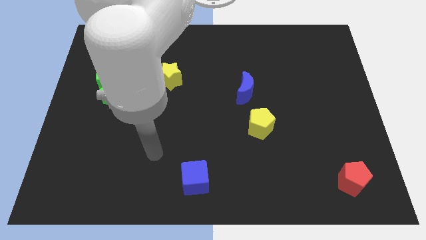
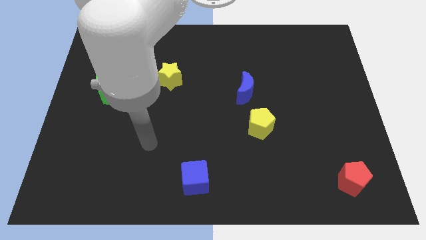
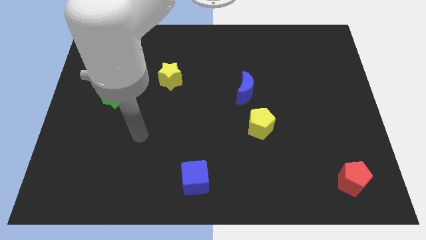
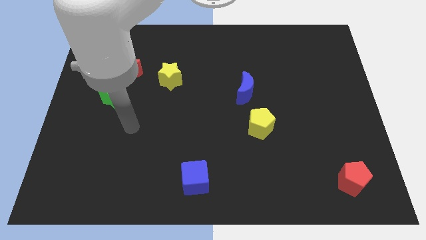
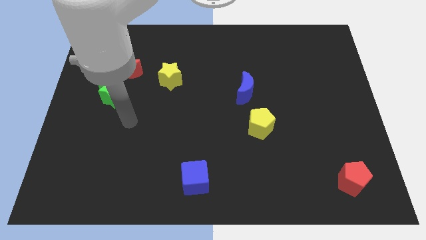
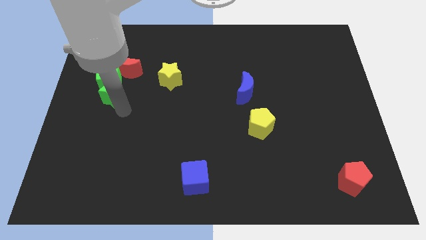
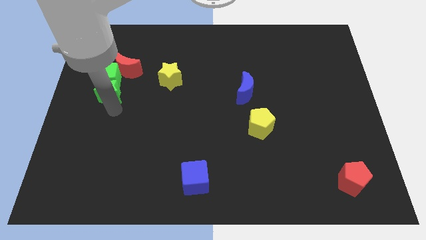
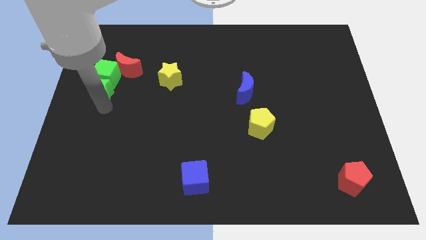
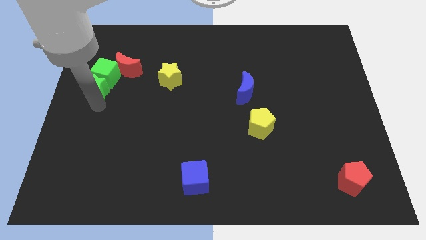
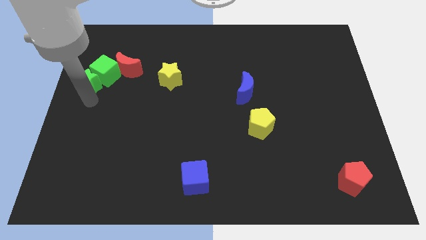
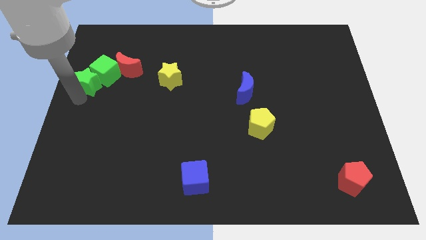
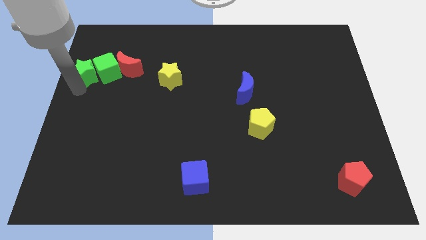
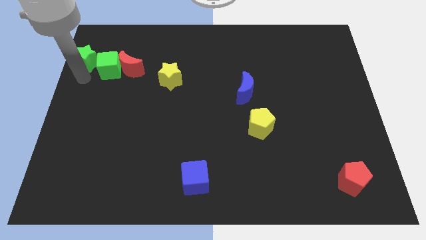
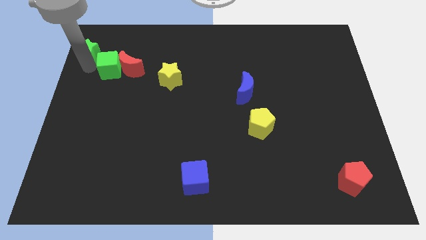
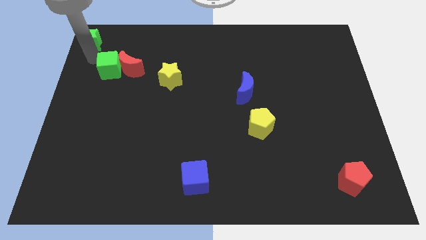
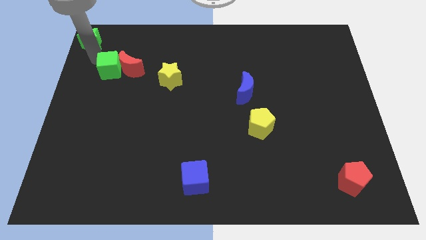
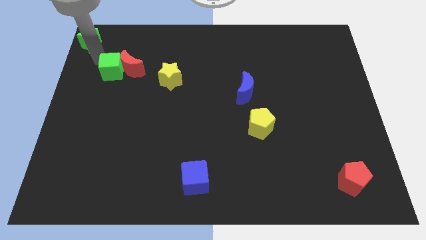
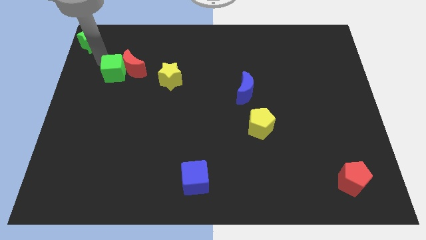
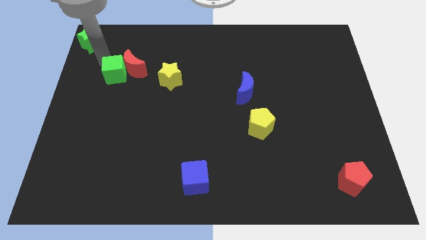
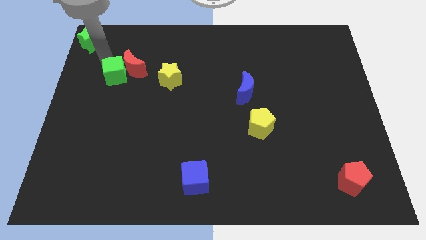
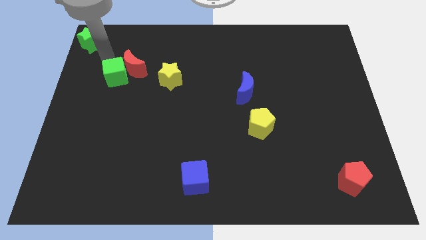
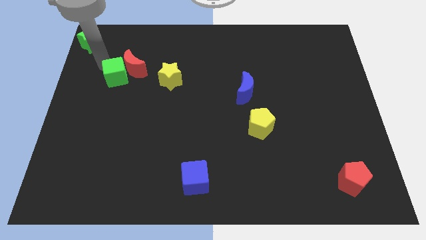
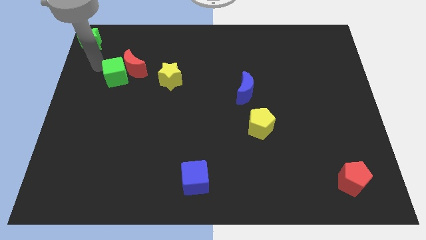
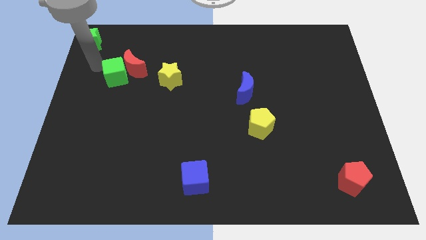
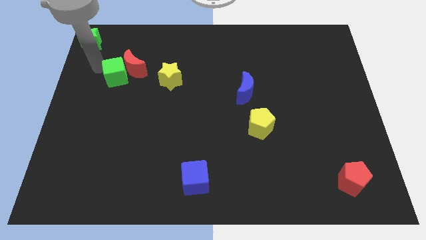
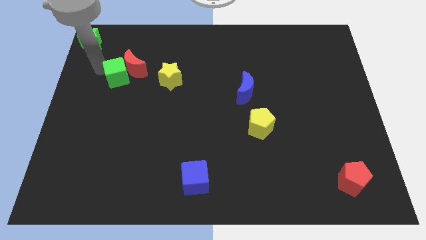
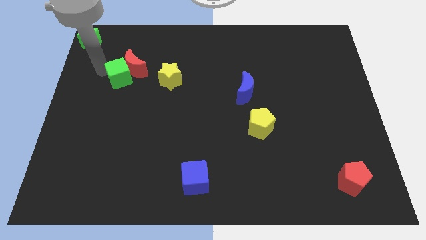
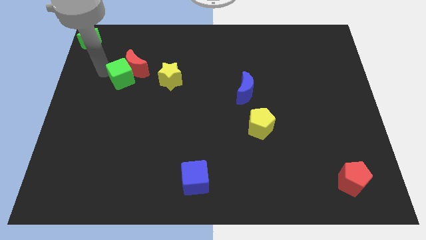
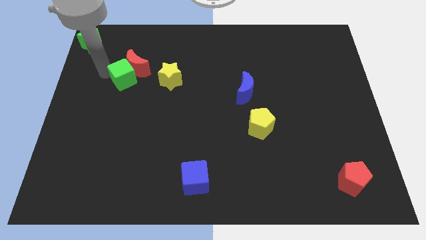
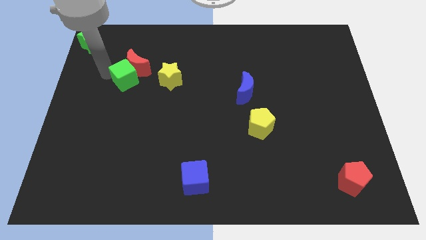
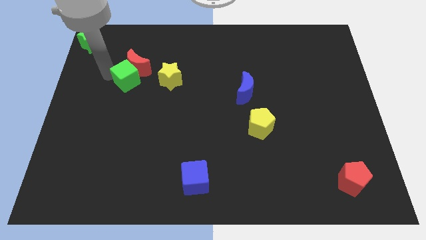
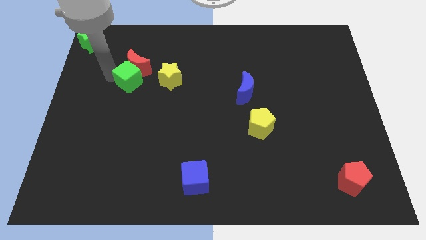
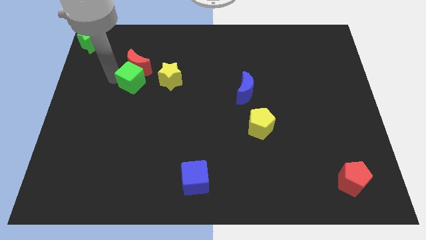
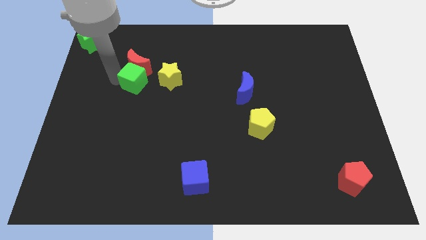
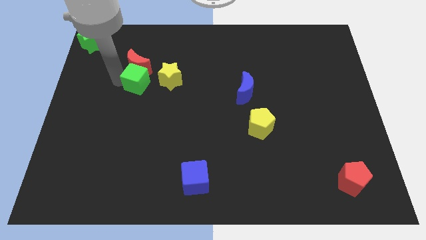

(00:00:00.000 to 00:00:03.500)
slightly push the green cube right

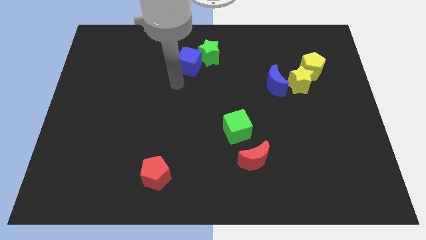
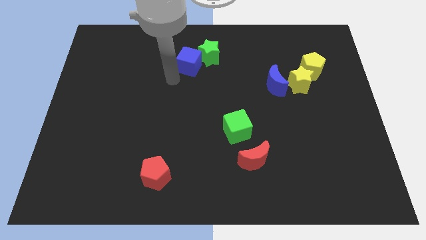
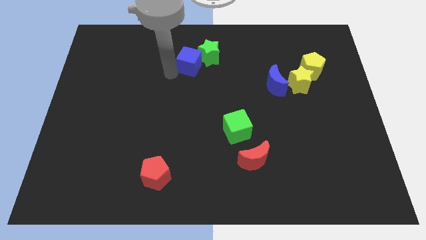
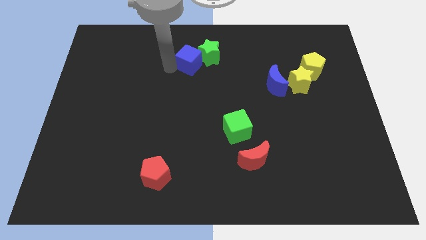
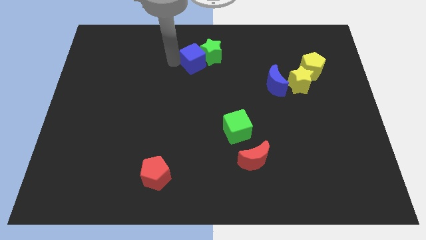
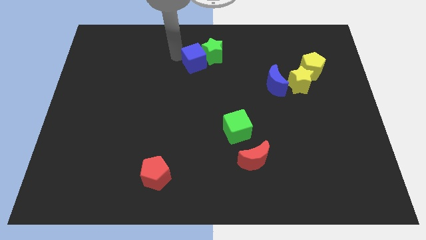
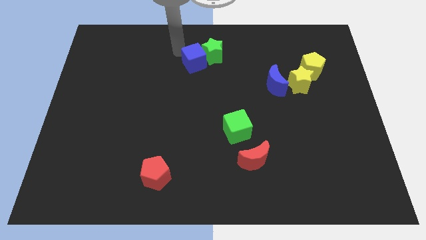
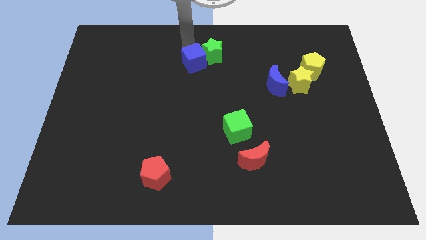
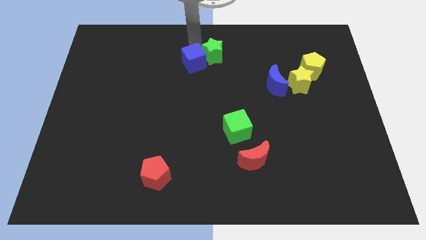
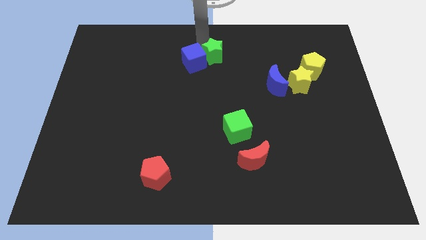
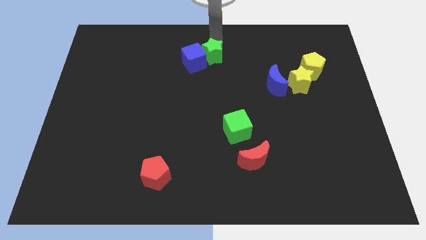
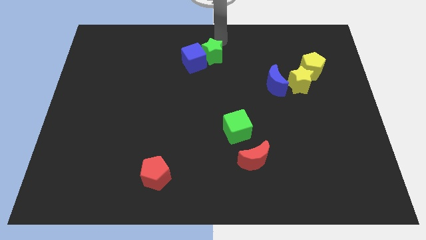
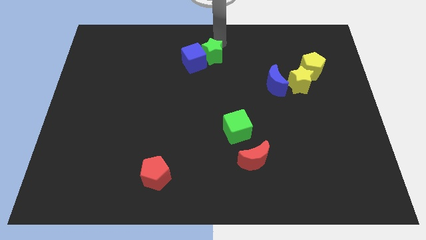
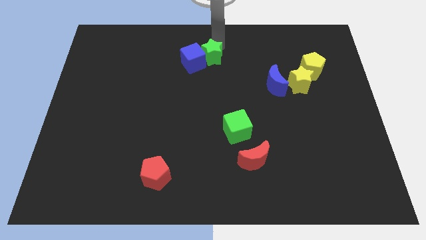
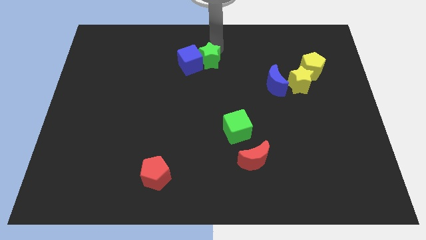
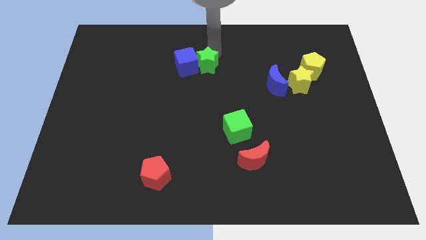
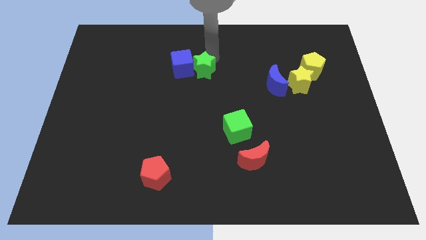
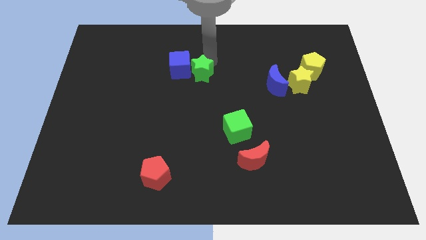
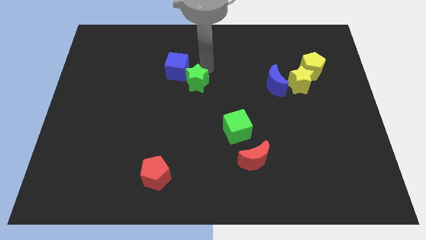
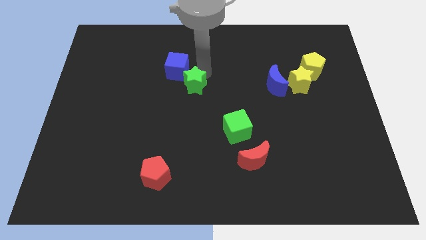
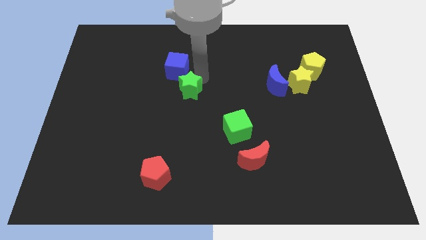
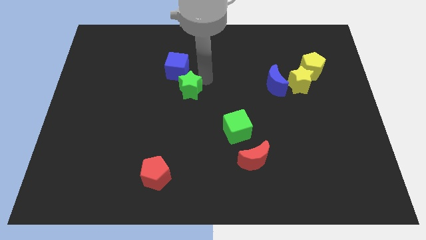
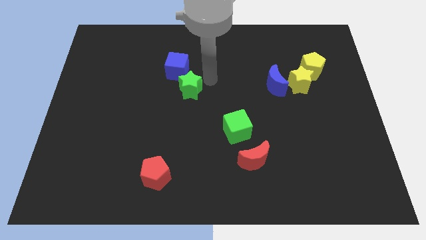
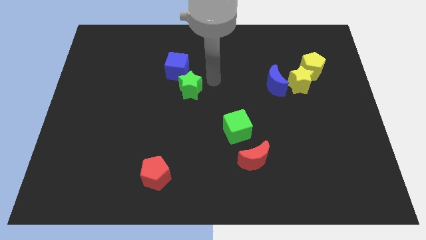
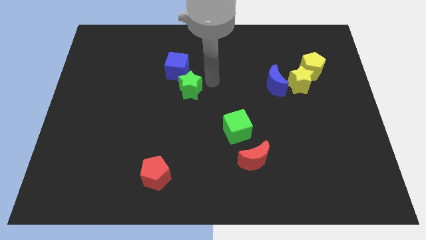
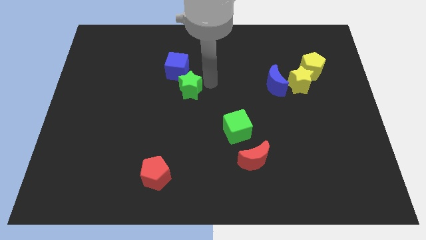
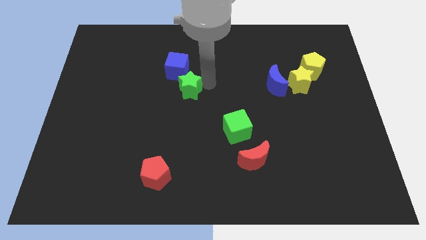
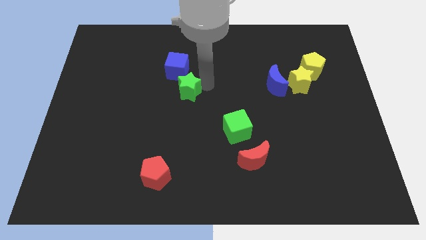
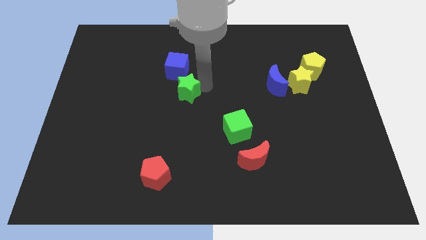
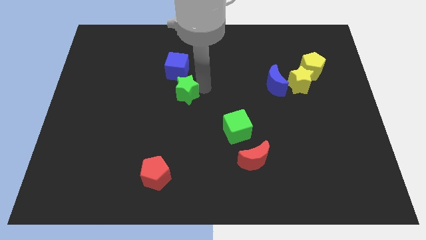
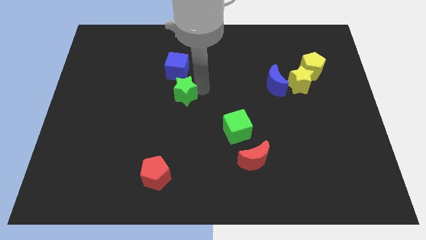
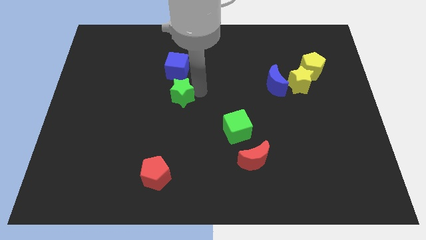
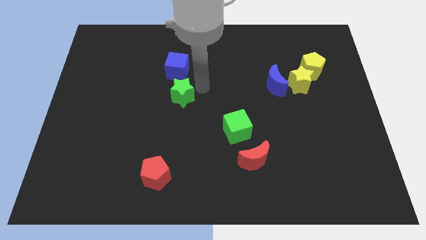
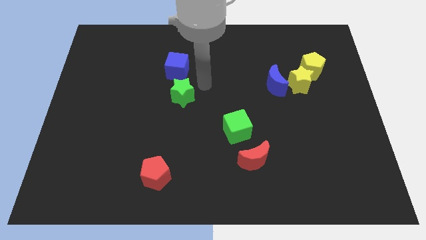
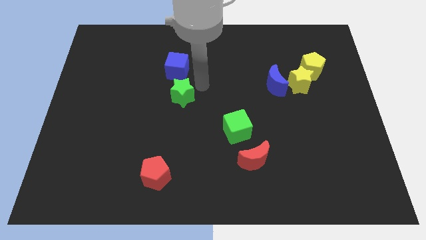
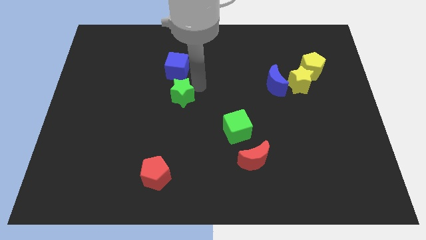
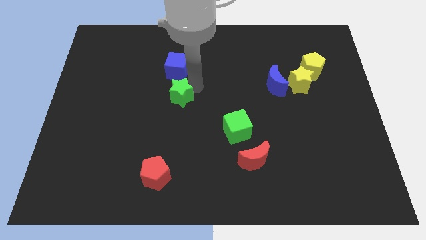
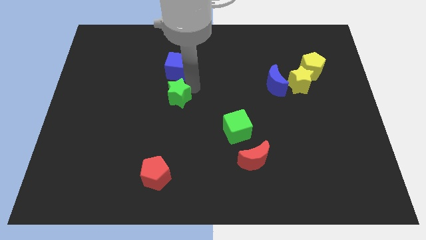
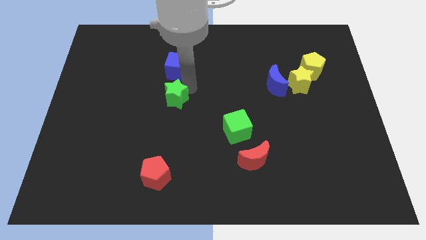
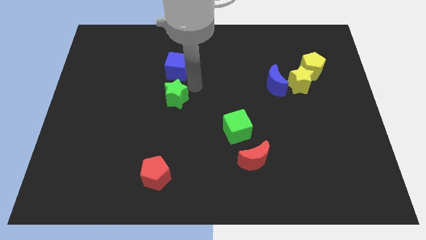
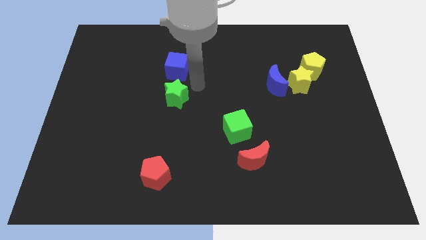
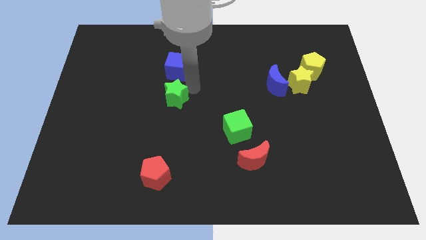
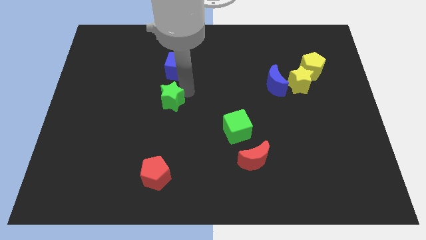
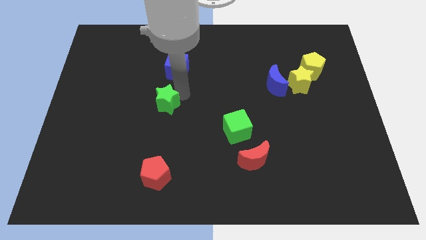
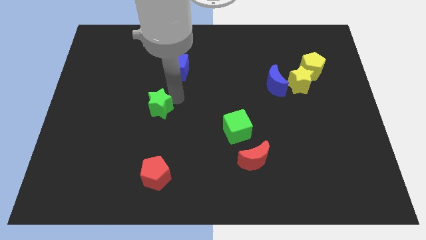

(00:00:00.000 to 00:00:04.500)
push the green star down and to the left

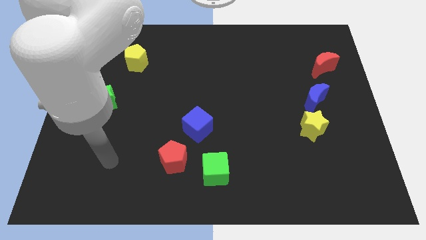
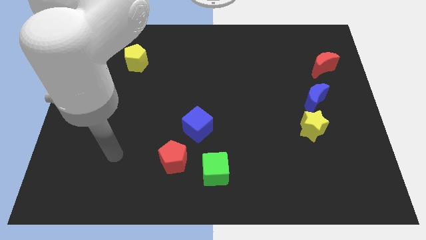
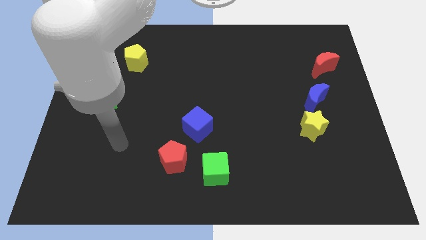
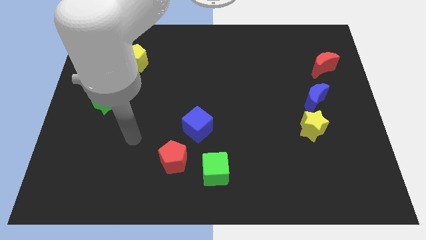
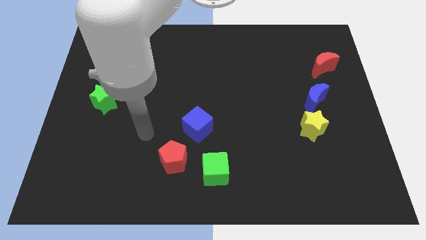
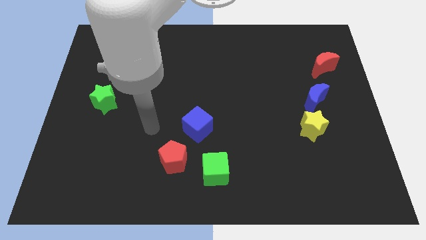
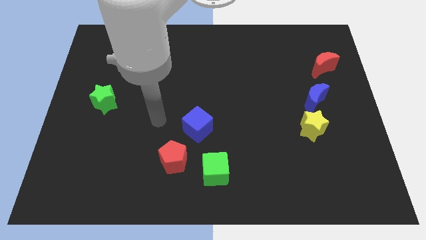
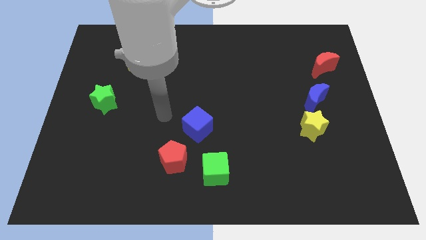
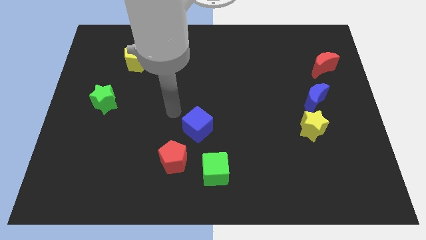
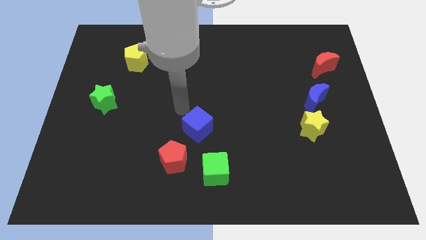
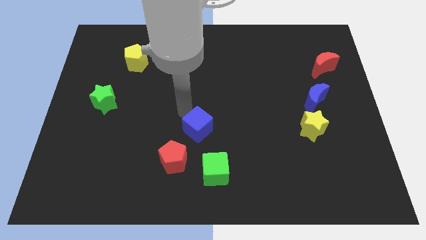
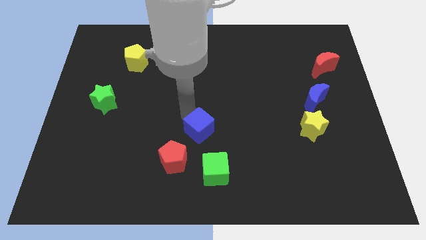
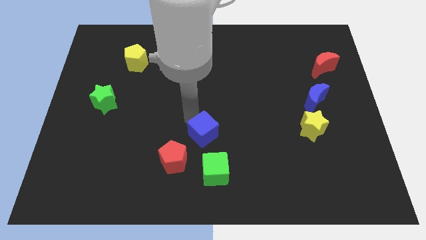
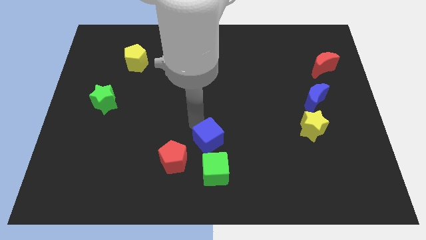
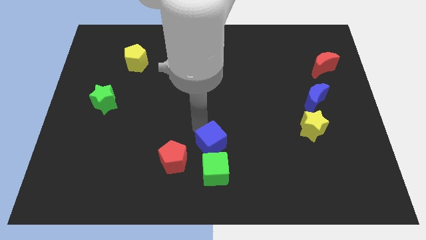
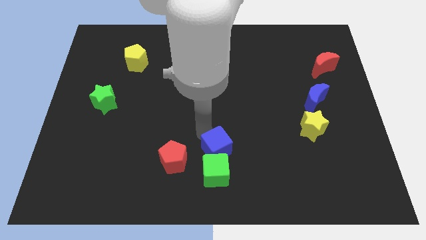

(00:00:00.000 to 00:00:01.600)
push the blue cube somewhat downwards and right diagonally
